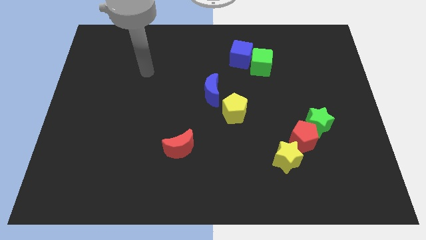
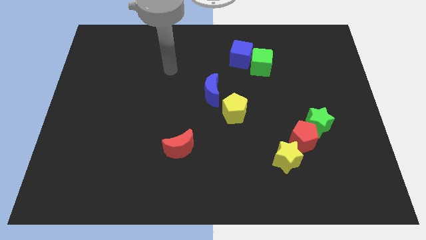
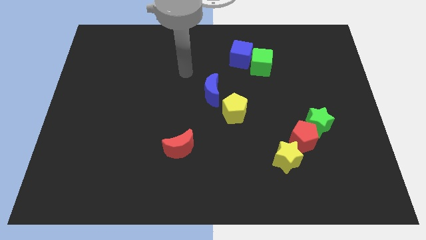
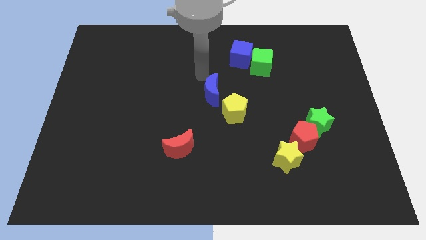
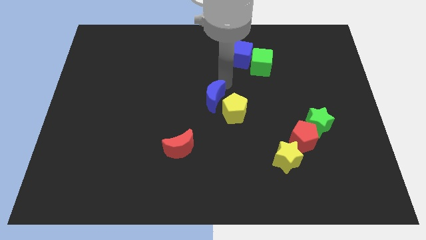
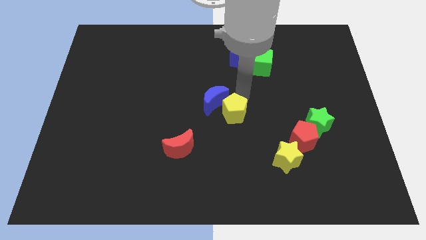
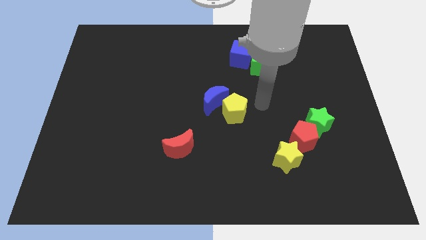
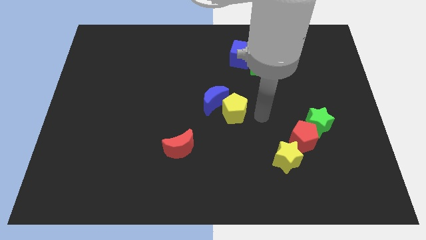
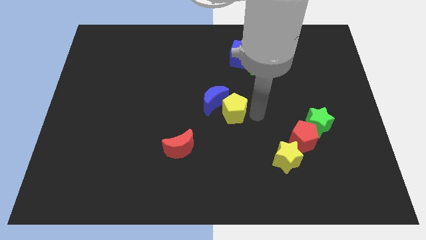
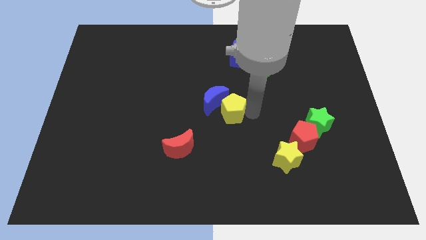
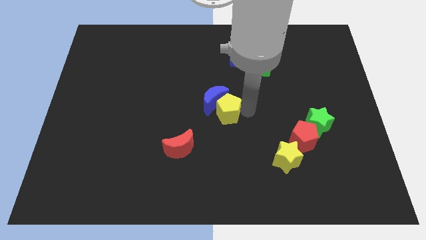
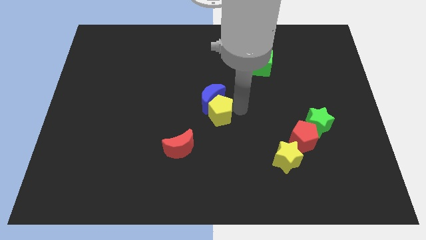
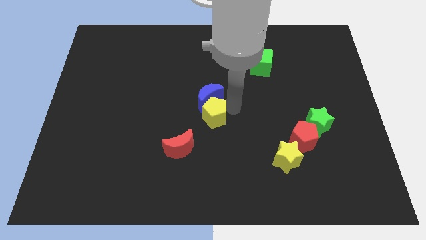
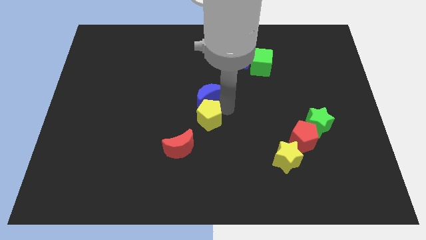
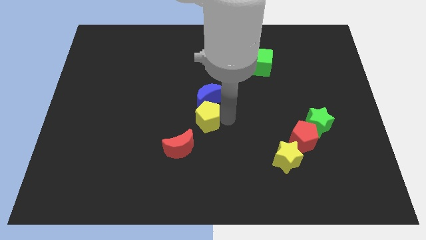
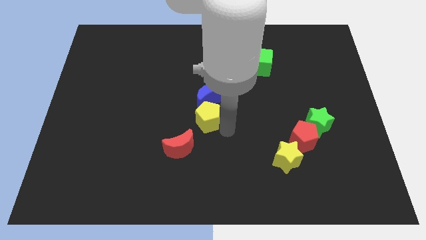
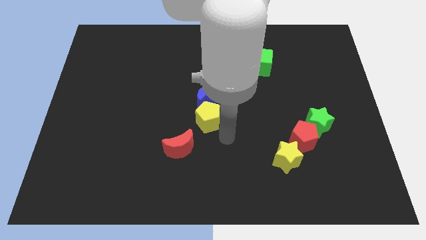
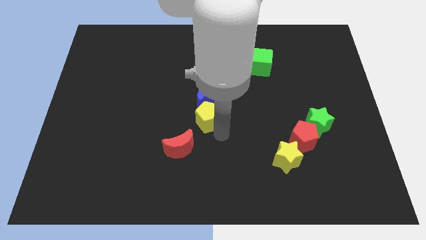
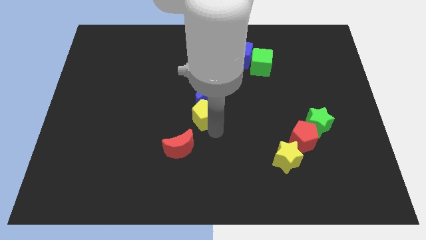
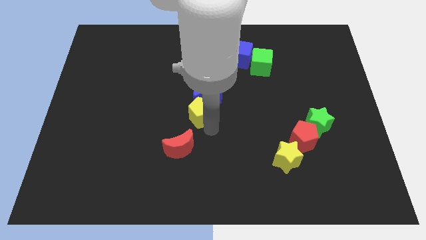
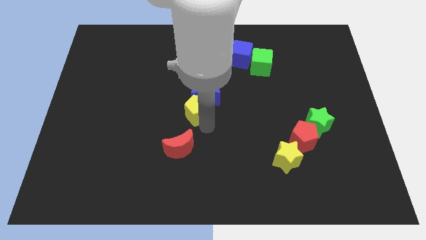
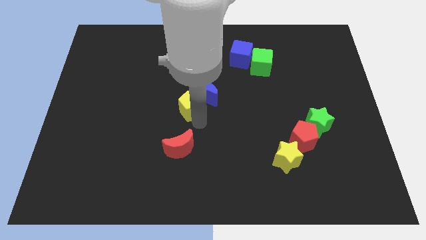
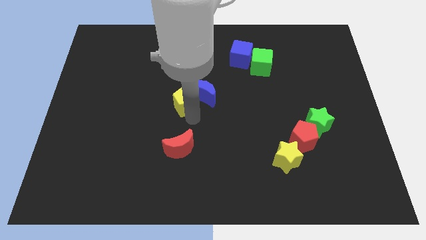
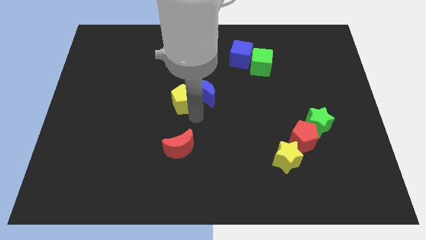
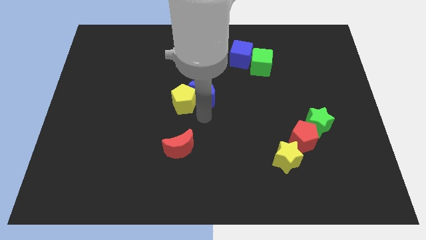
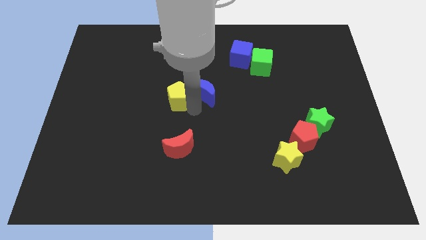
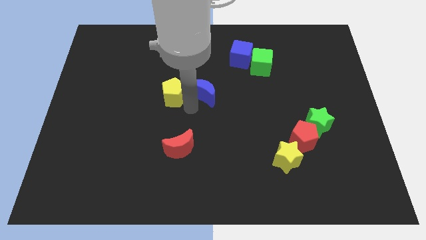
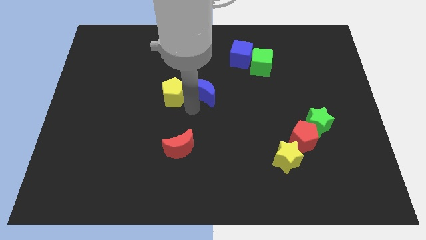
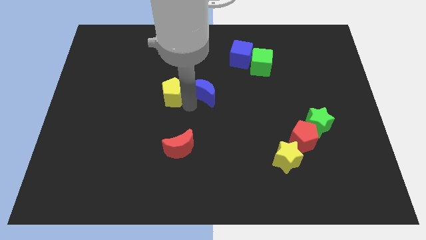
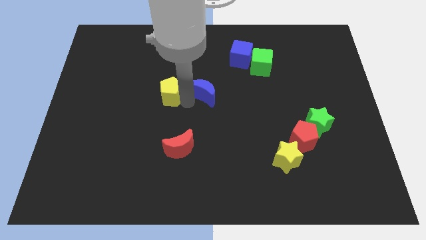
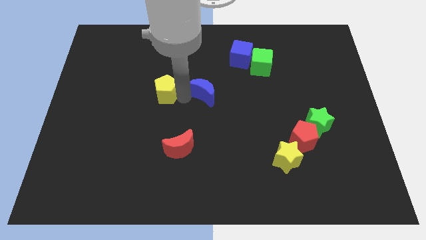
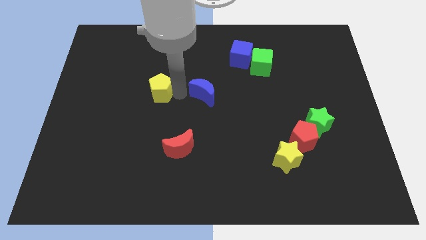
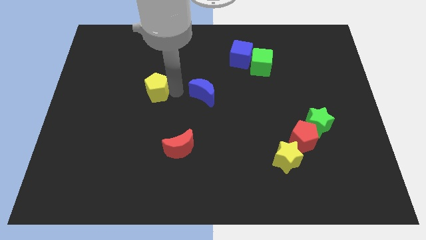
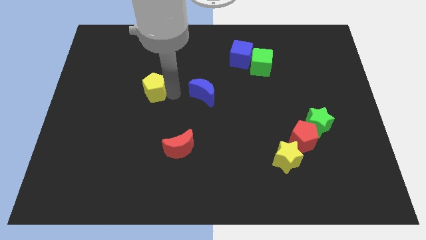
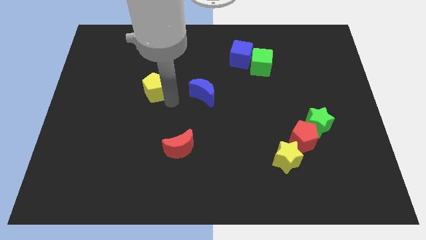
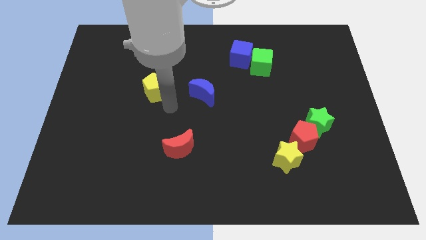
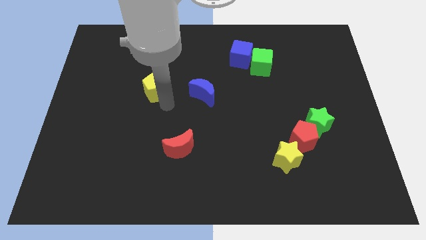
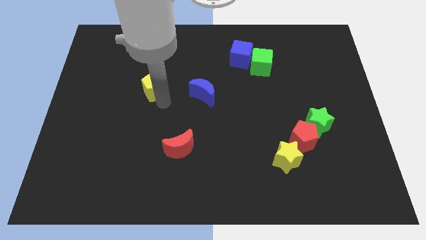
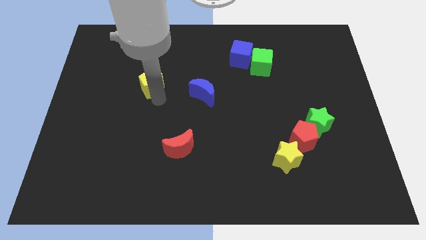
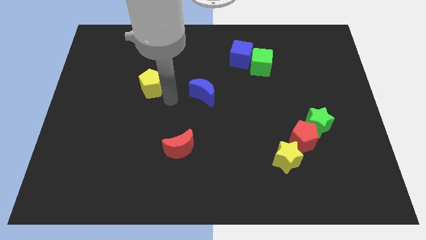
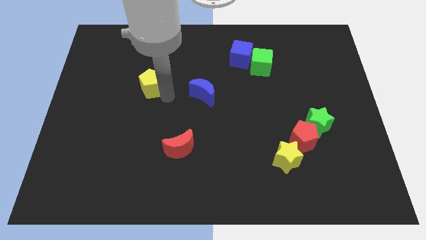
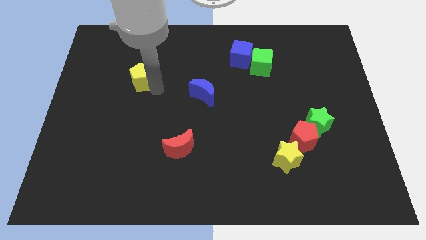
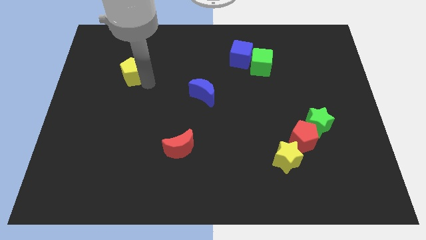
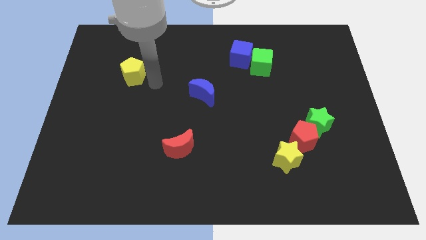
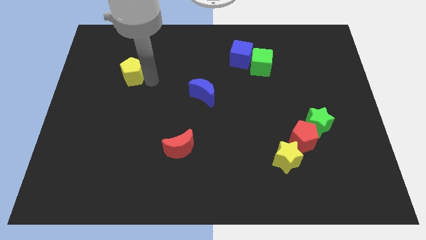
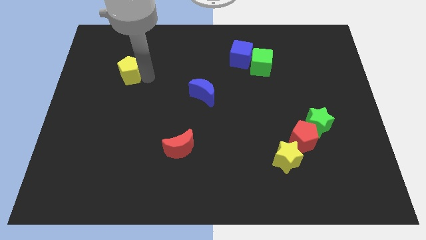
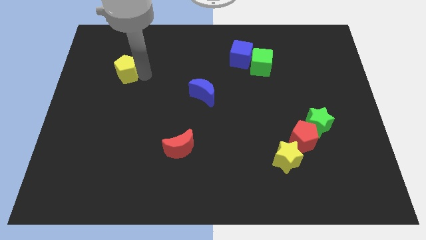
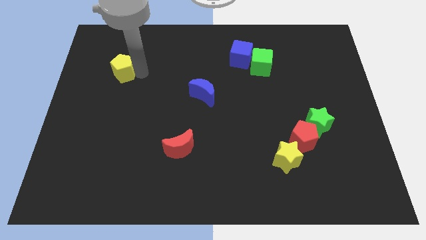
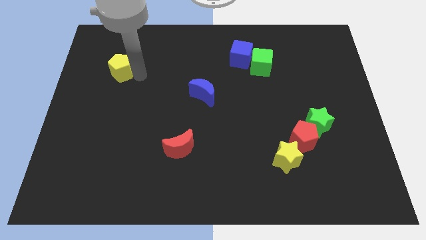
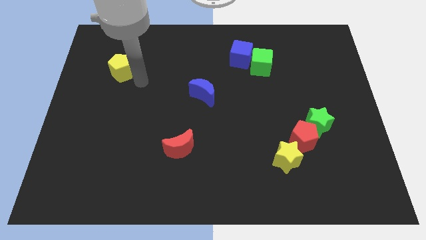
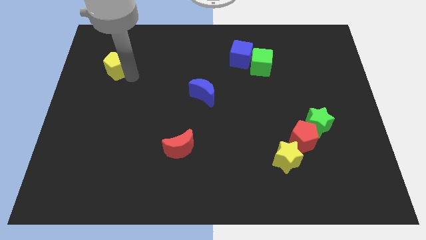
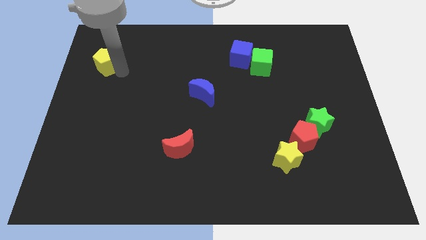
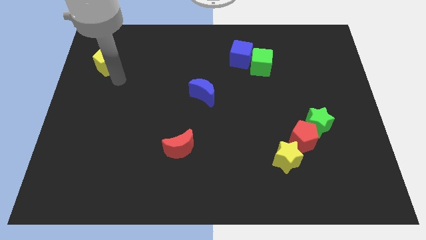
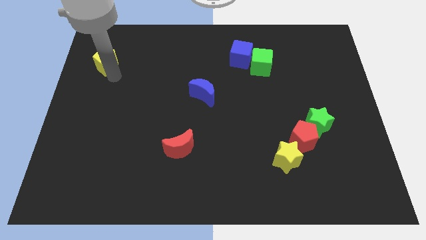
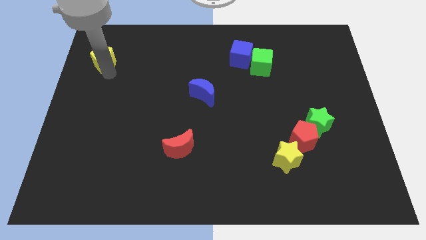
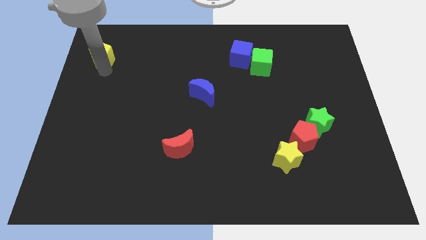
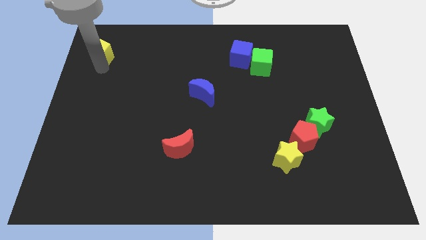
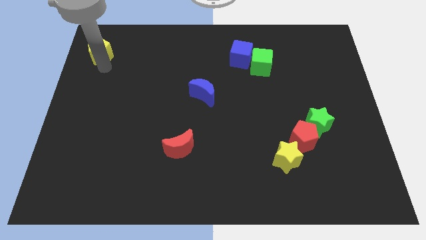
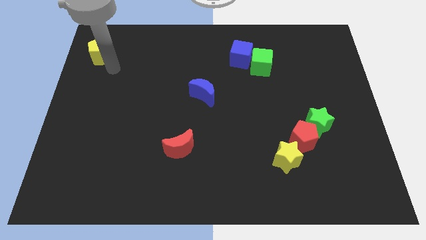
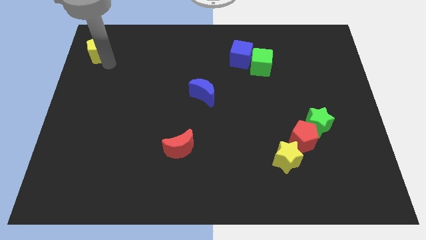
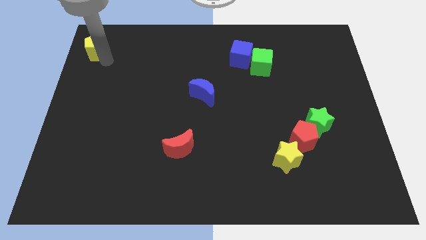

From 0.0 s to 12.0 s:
slide the yellow pentagon to the top left
